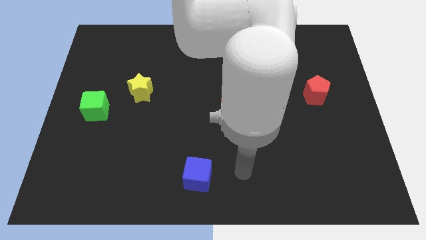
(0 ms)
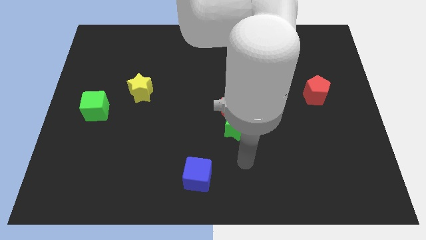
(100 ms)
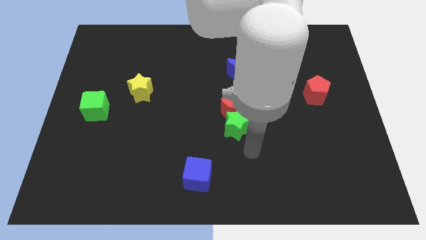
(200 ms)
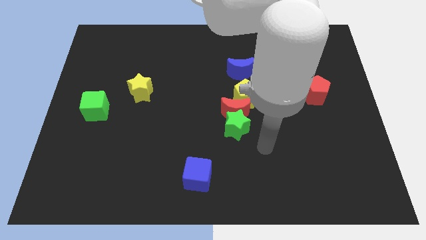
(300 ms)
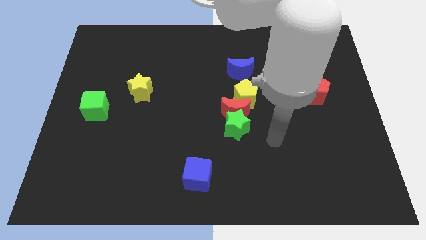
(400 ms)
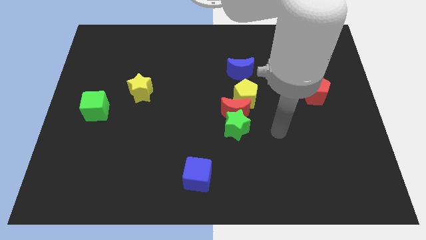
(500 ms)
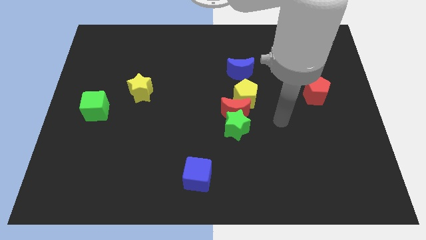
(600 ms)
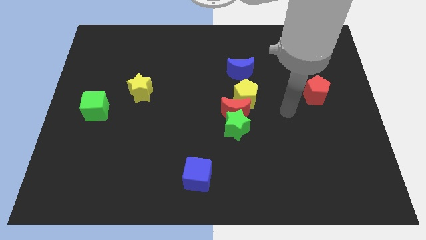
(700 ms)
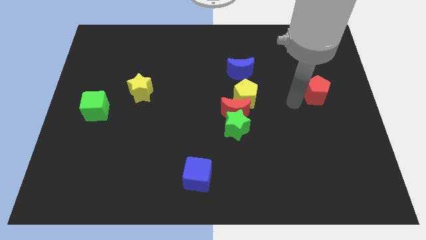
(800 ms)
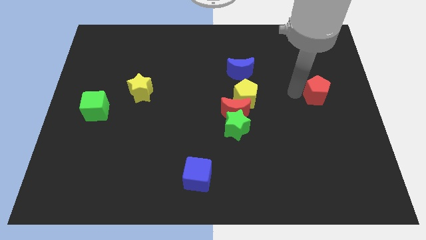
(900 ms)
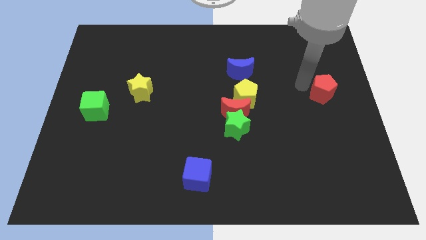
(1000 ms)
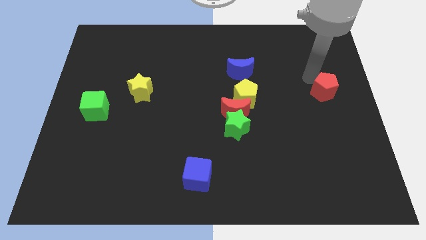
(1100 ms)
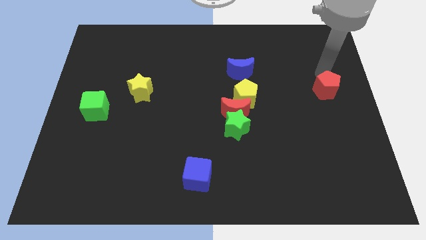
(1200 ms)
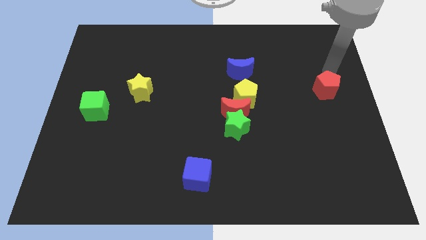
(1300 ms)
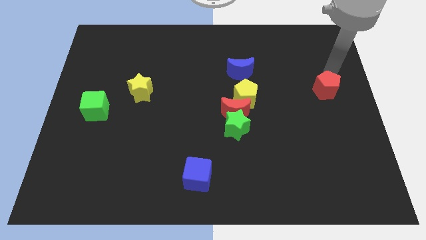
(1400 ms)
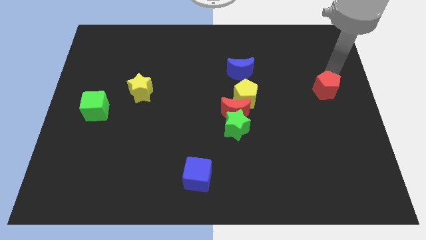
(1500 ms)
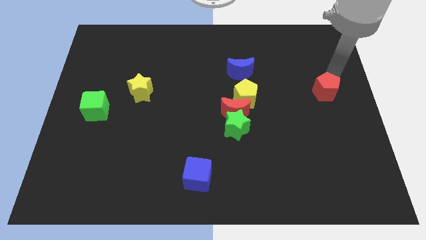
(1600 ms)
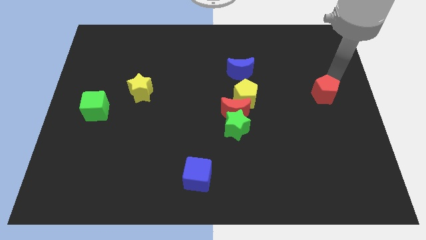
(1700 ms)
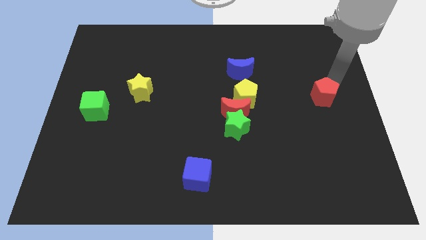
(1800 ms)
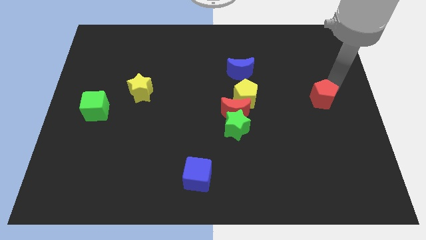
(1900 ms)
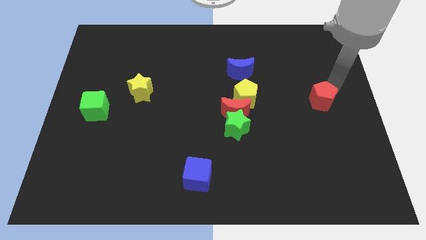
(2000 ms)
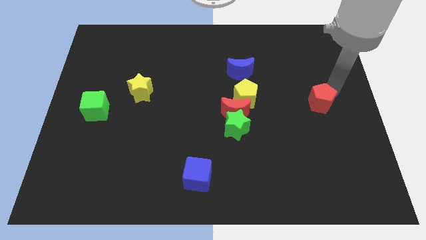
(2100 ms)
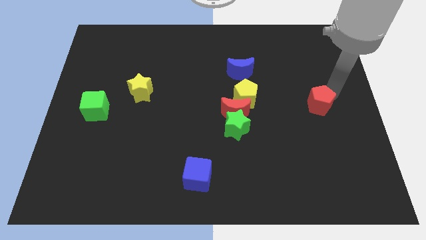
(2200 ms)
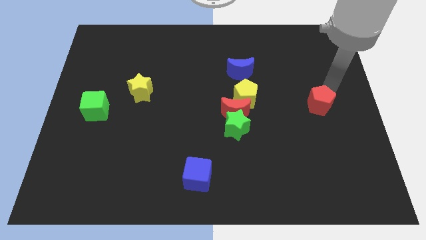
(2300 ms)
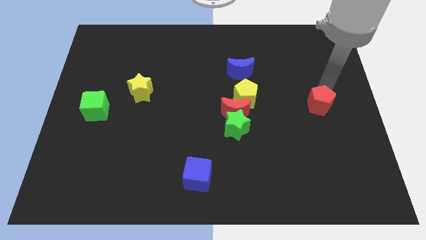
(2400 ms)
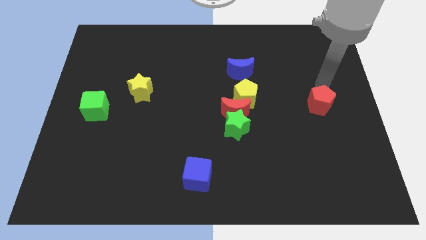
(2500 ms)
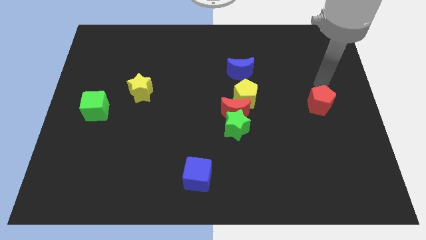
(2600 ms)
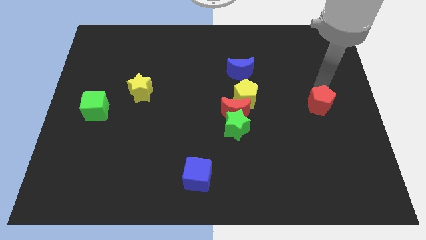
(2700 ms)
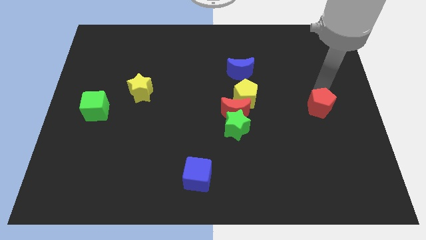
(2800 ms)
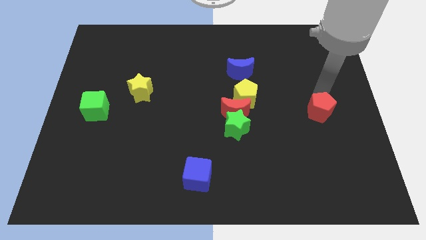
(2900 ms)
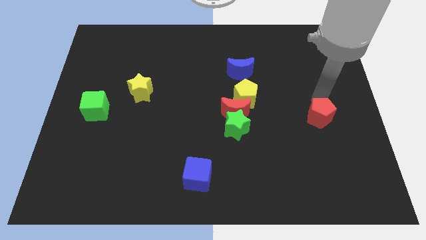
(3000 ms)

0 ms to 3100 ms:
slightly move the red pentagon down

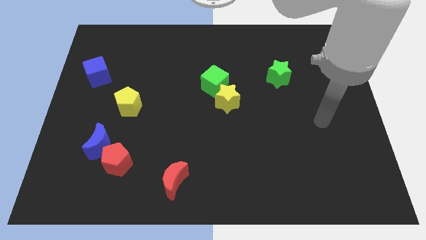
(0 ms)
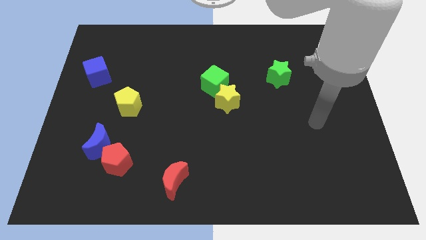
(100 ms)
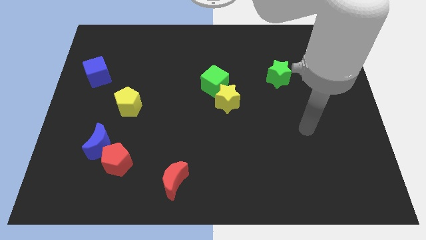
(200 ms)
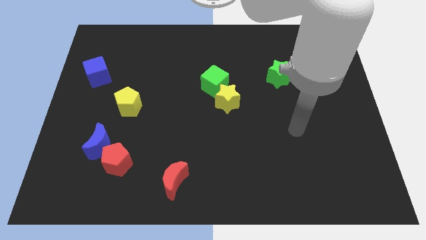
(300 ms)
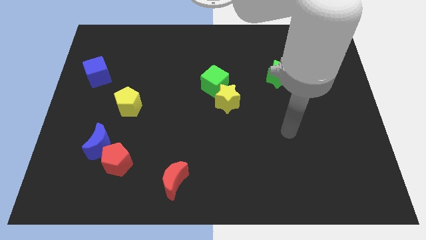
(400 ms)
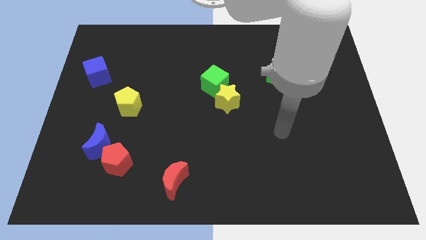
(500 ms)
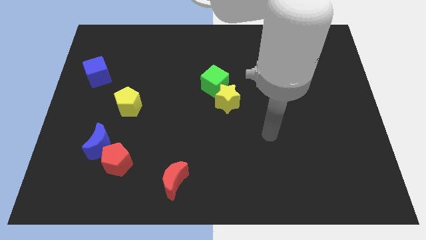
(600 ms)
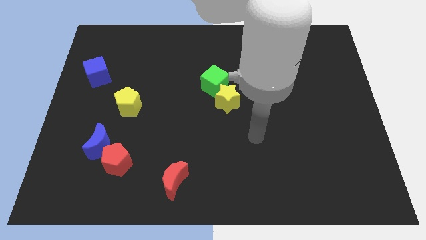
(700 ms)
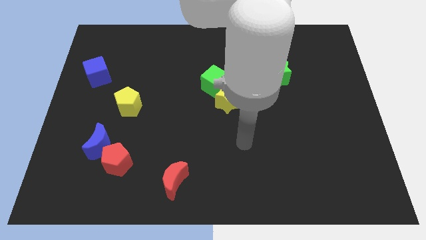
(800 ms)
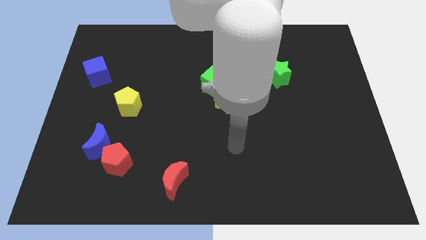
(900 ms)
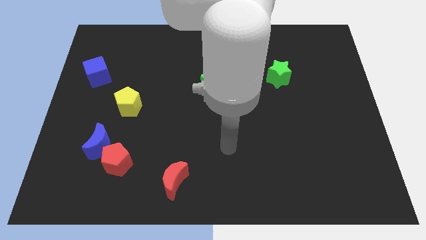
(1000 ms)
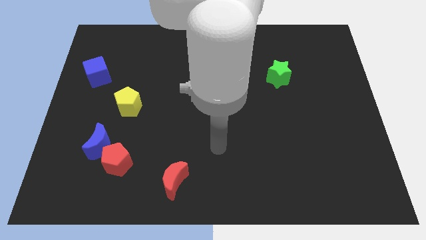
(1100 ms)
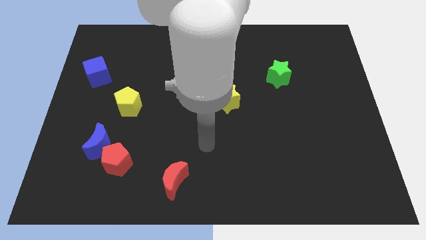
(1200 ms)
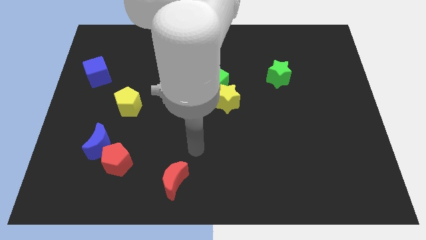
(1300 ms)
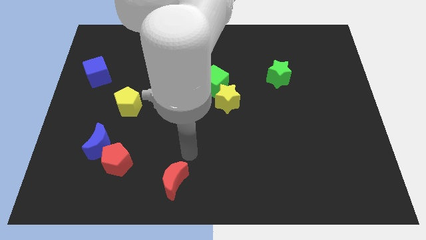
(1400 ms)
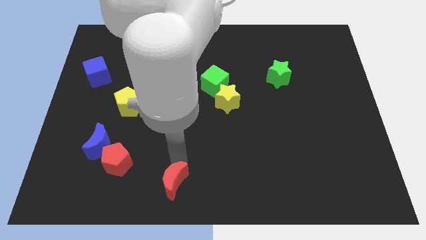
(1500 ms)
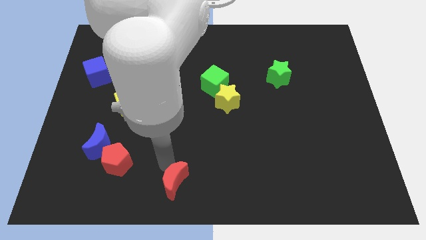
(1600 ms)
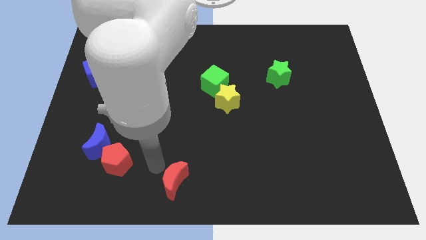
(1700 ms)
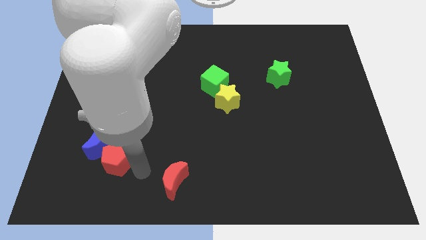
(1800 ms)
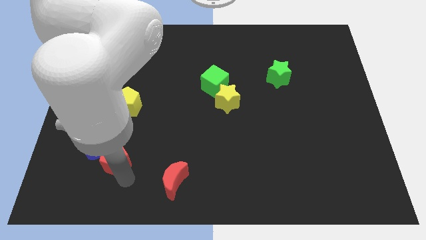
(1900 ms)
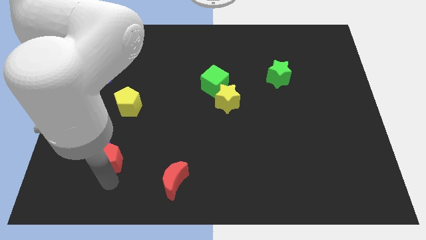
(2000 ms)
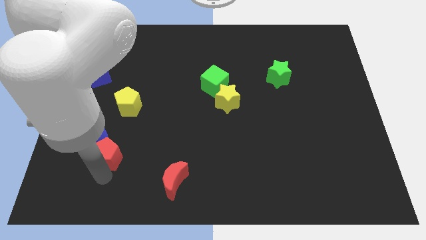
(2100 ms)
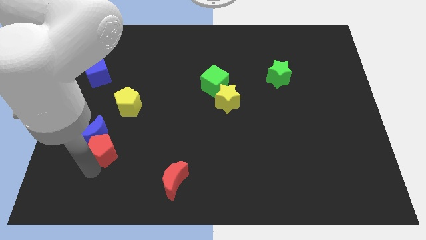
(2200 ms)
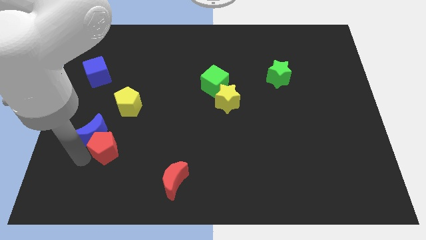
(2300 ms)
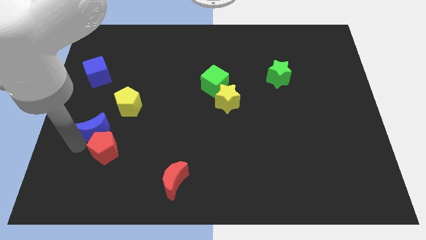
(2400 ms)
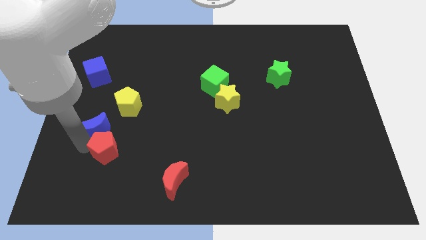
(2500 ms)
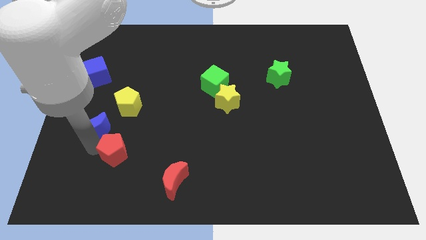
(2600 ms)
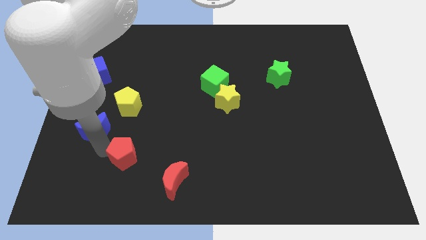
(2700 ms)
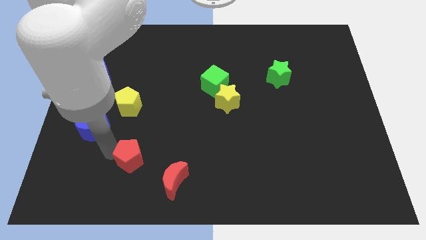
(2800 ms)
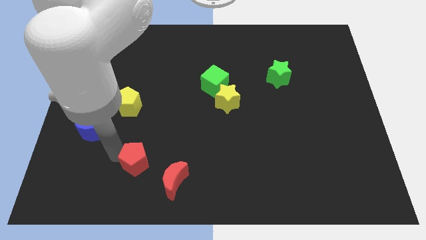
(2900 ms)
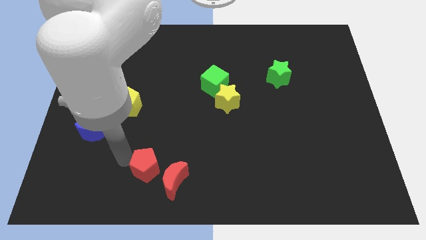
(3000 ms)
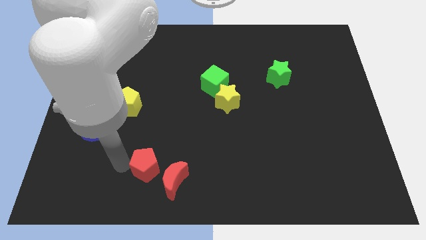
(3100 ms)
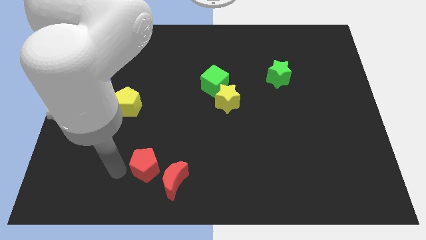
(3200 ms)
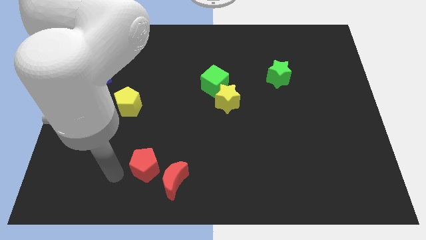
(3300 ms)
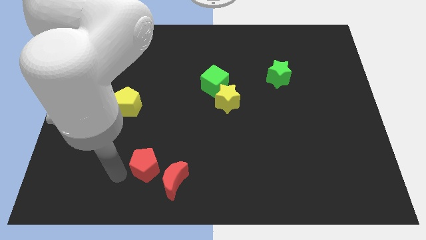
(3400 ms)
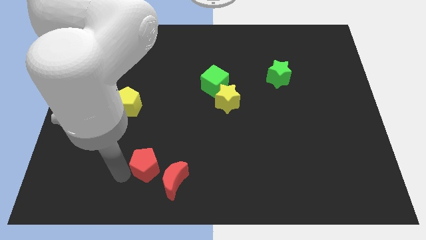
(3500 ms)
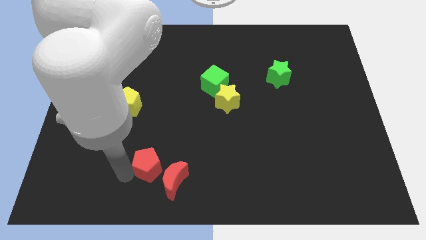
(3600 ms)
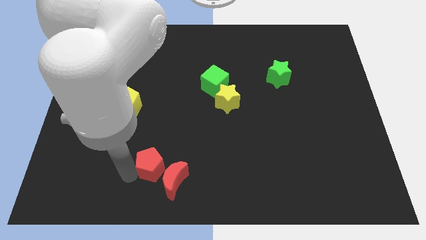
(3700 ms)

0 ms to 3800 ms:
move the red pentagon a little bit right

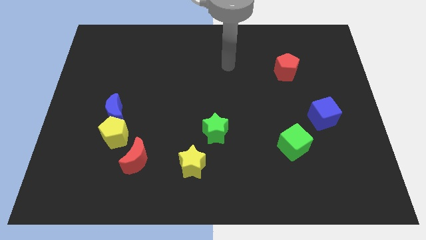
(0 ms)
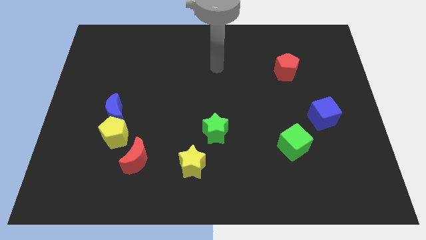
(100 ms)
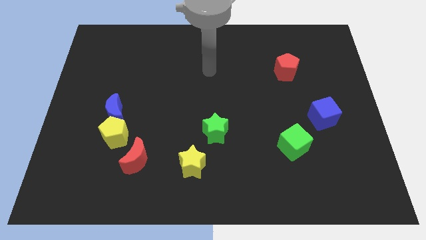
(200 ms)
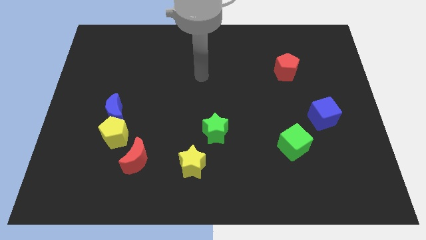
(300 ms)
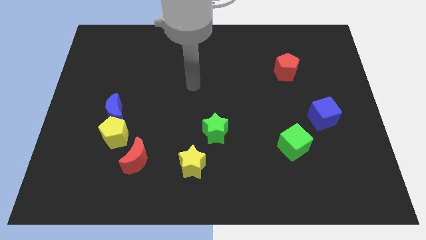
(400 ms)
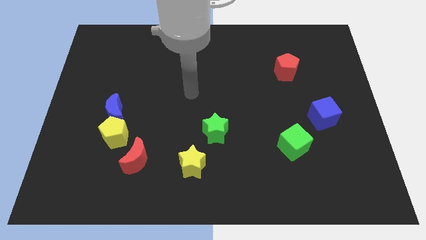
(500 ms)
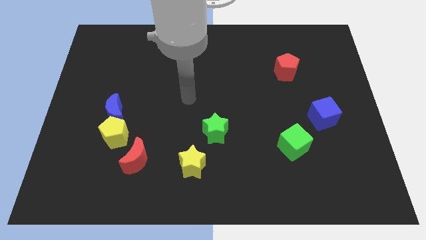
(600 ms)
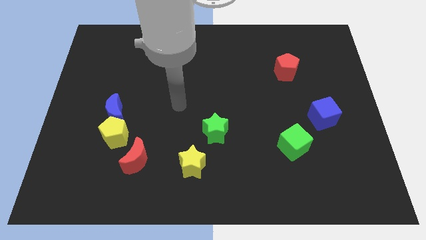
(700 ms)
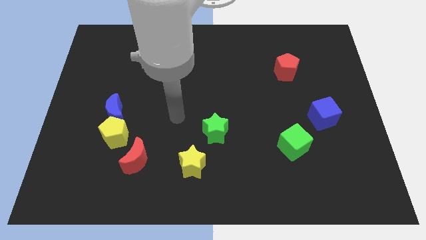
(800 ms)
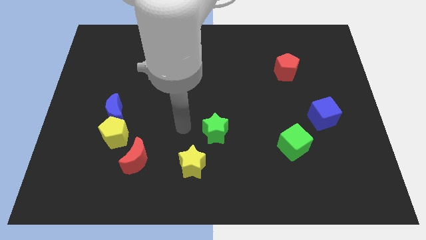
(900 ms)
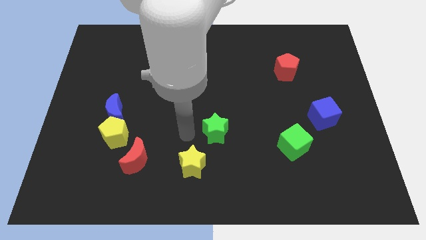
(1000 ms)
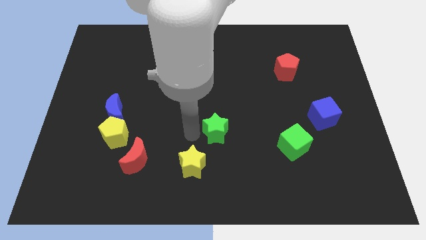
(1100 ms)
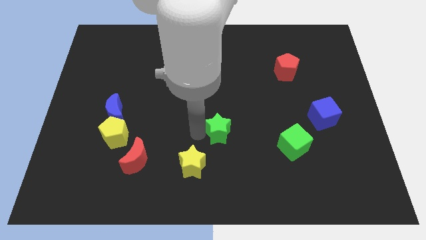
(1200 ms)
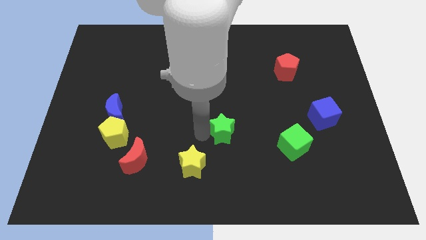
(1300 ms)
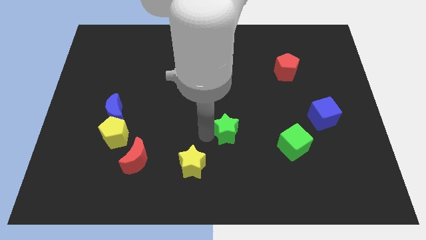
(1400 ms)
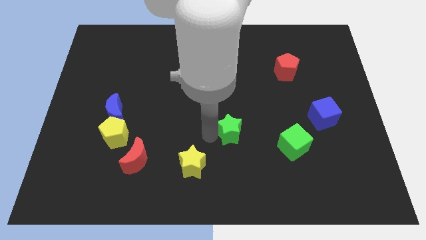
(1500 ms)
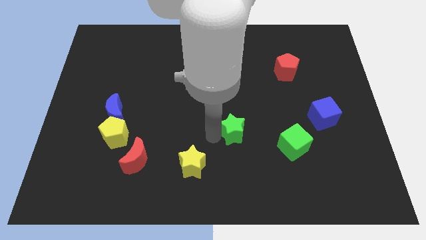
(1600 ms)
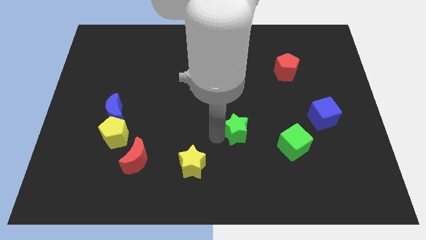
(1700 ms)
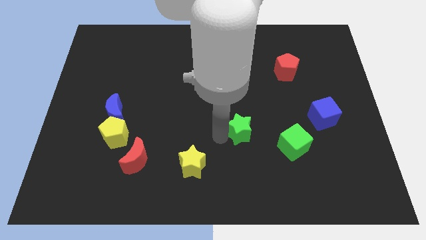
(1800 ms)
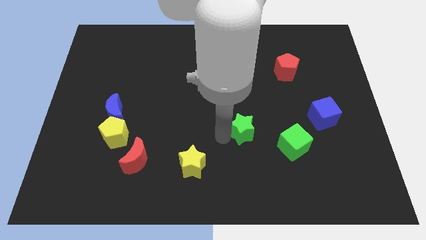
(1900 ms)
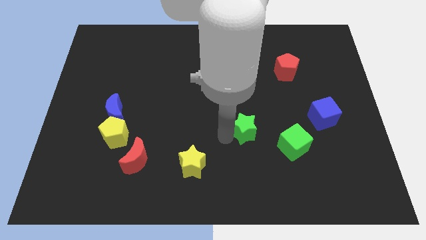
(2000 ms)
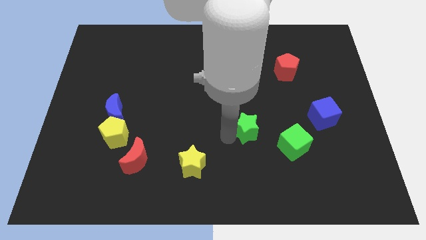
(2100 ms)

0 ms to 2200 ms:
slightly slide the green star right
